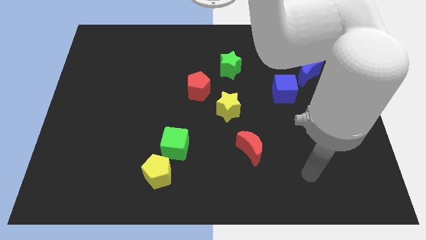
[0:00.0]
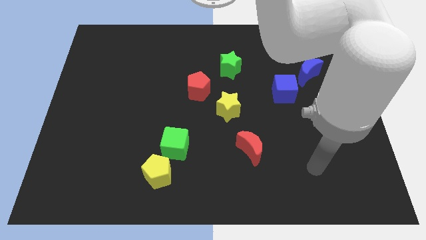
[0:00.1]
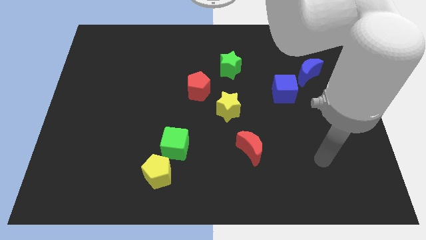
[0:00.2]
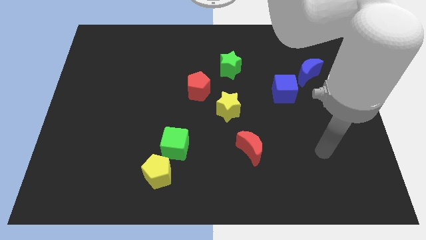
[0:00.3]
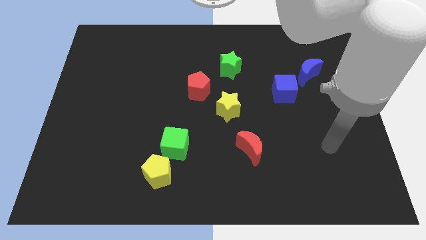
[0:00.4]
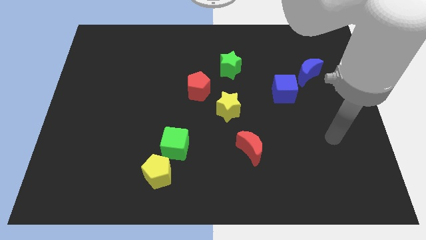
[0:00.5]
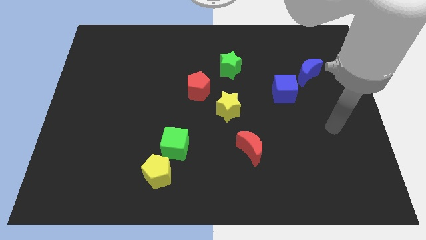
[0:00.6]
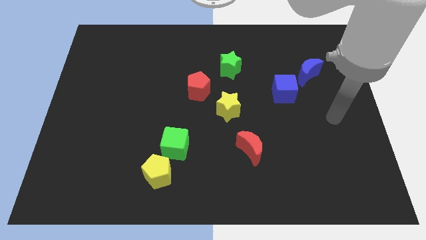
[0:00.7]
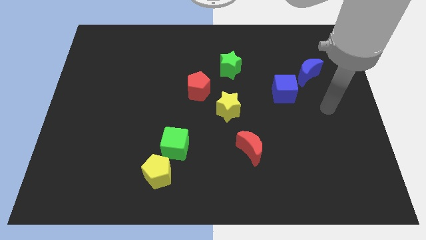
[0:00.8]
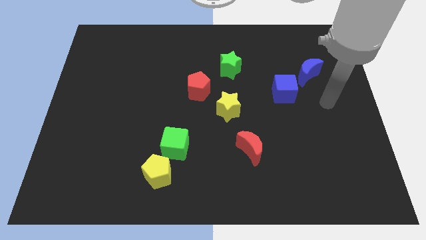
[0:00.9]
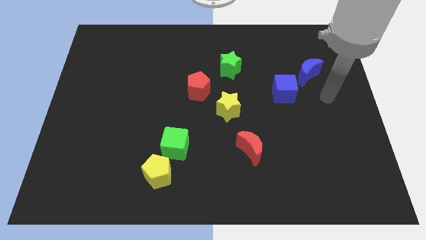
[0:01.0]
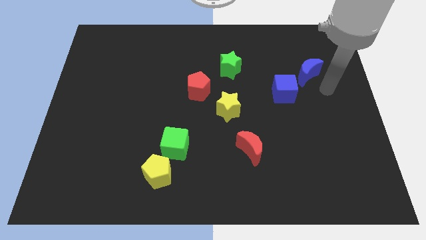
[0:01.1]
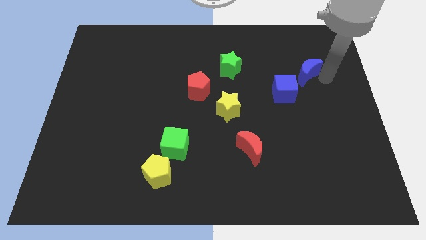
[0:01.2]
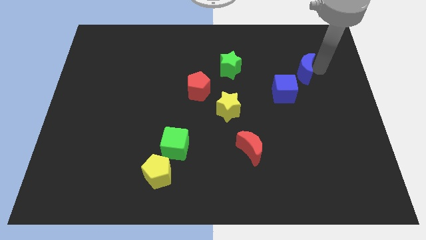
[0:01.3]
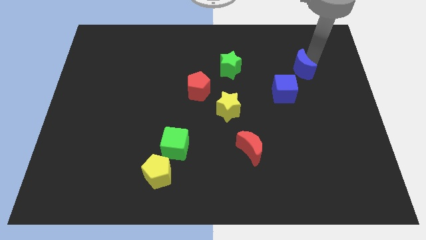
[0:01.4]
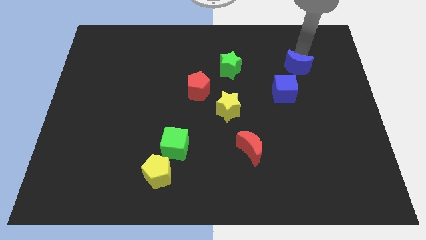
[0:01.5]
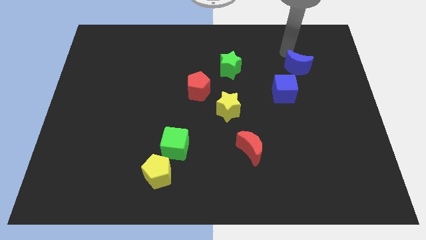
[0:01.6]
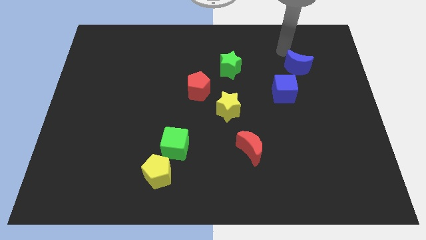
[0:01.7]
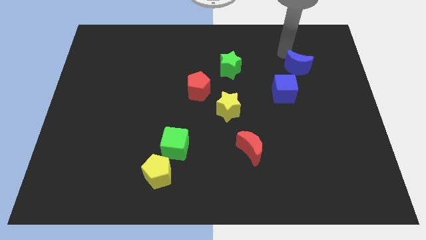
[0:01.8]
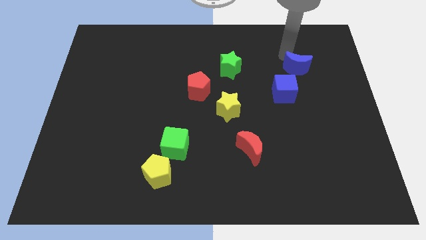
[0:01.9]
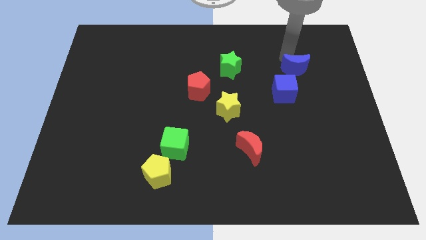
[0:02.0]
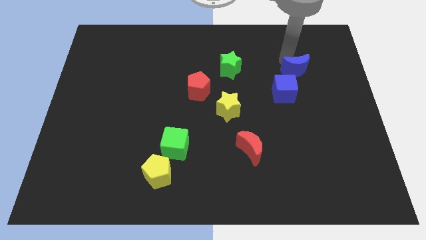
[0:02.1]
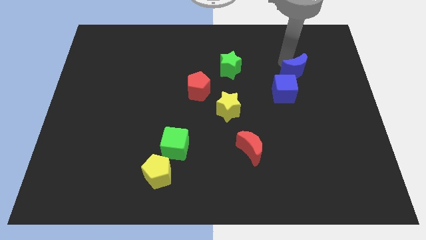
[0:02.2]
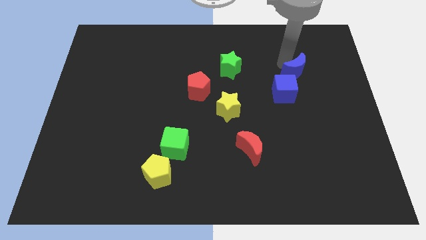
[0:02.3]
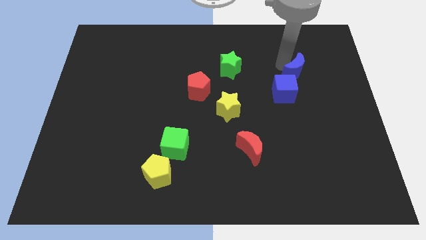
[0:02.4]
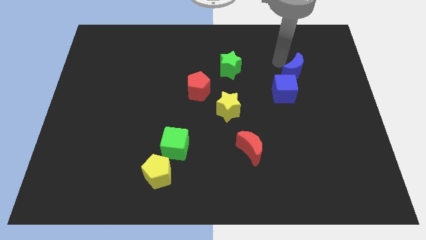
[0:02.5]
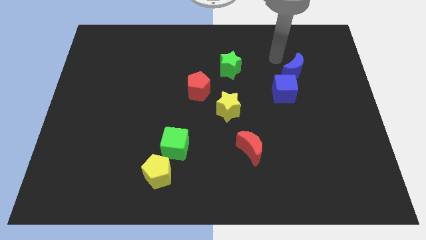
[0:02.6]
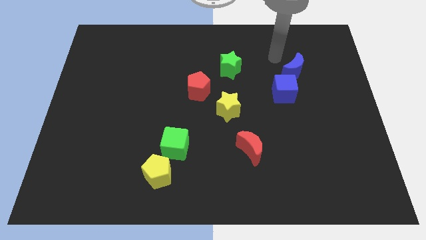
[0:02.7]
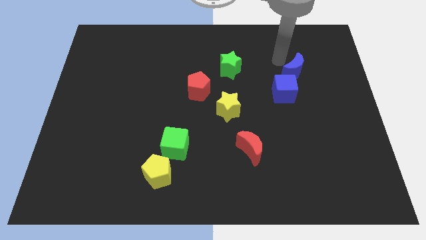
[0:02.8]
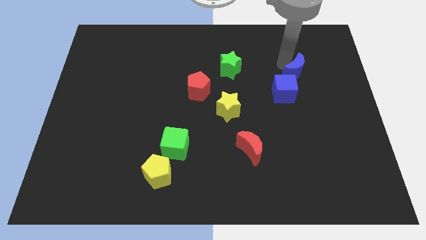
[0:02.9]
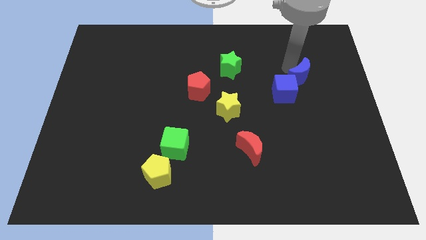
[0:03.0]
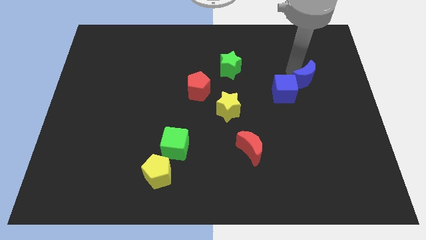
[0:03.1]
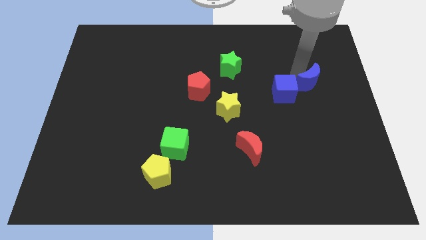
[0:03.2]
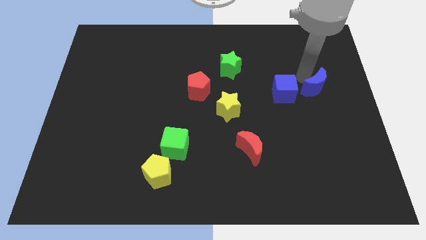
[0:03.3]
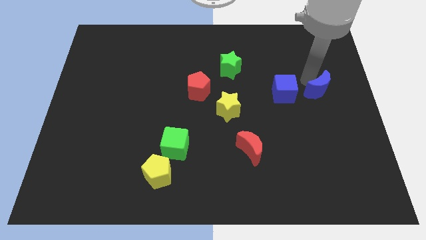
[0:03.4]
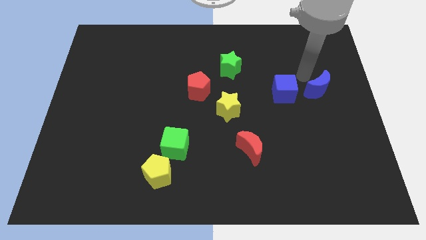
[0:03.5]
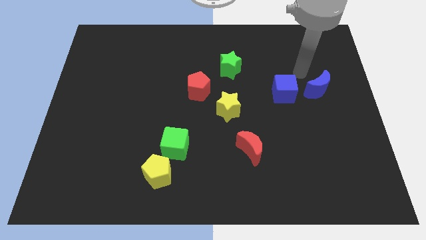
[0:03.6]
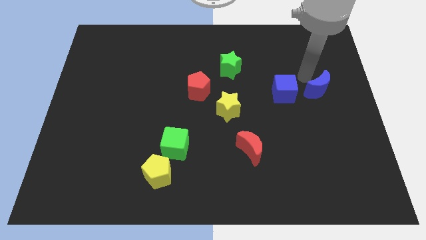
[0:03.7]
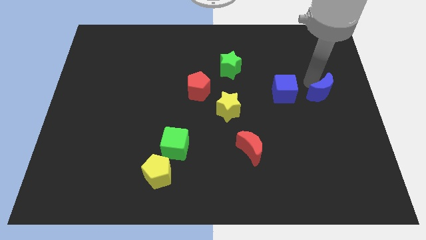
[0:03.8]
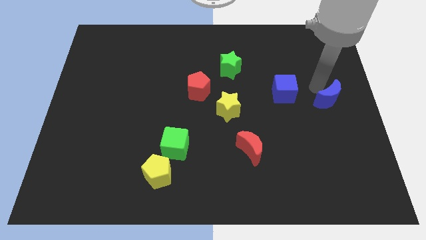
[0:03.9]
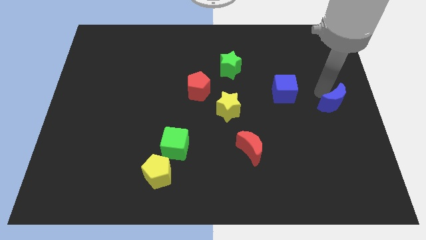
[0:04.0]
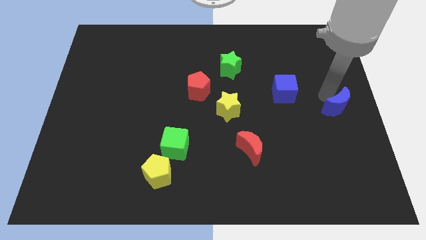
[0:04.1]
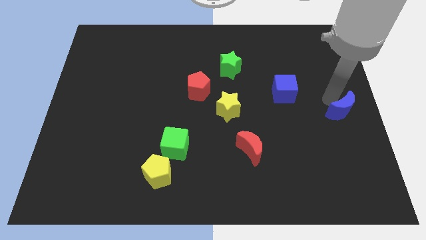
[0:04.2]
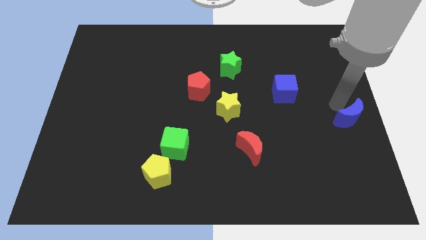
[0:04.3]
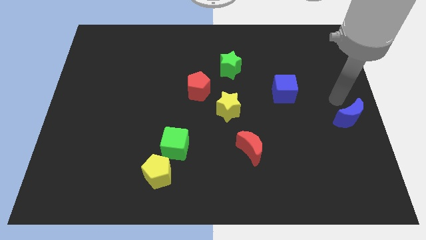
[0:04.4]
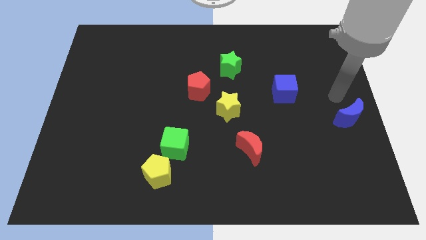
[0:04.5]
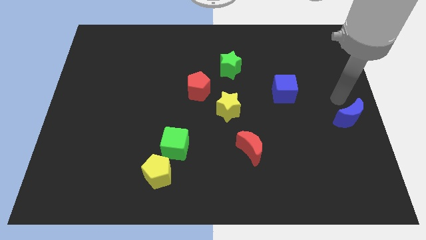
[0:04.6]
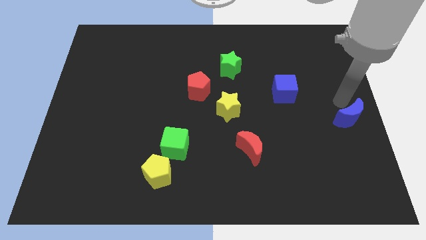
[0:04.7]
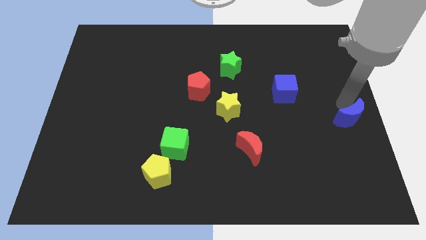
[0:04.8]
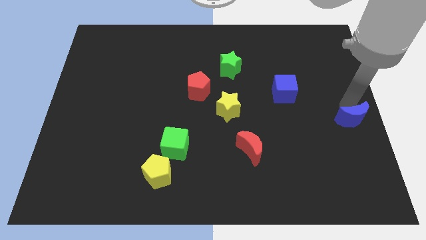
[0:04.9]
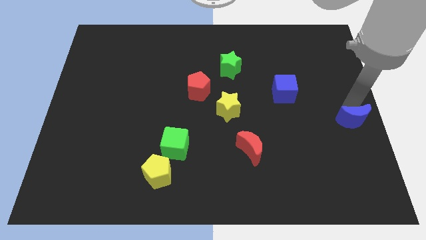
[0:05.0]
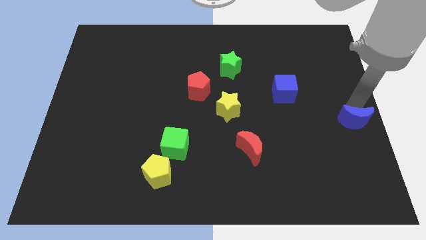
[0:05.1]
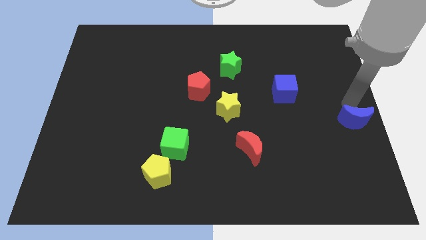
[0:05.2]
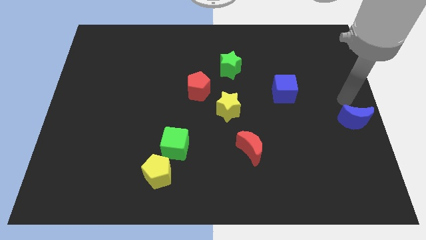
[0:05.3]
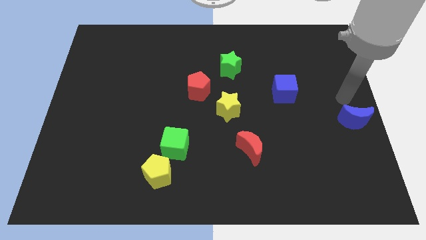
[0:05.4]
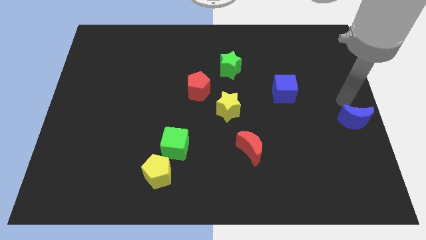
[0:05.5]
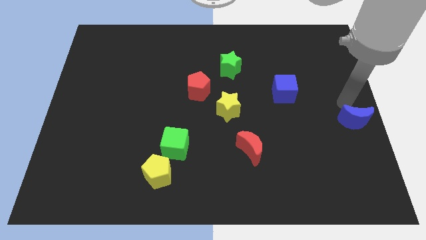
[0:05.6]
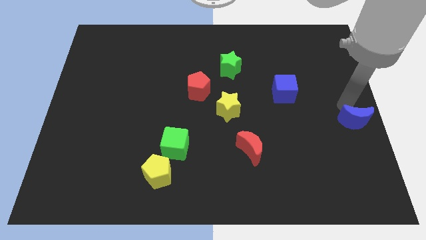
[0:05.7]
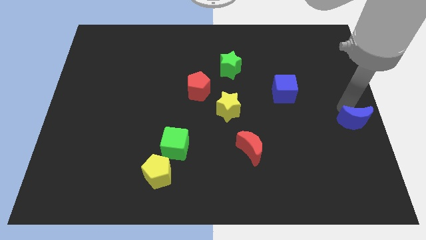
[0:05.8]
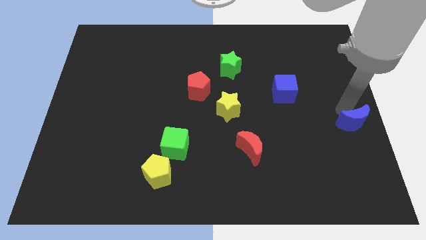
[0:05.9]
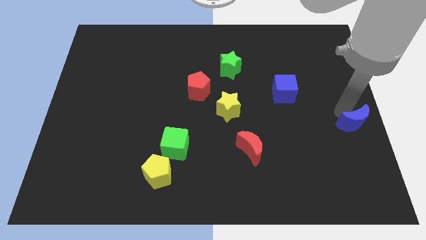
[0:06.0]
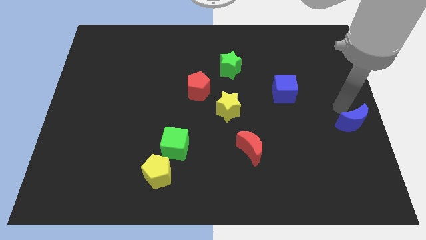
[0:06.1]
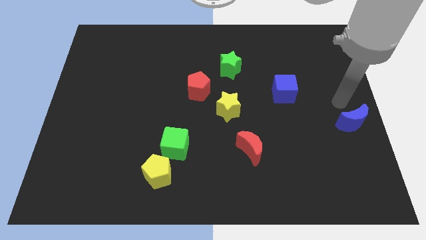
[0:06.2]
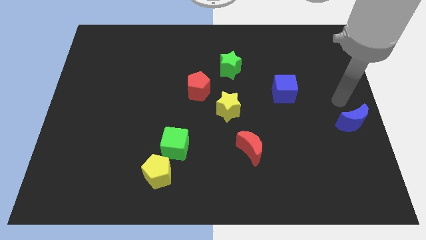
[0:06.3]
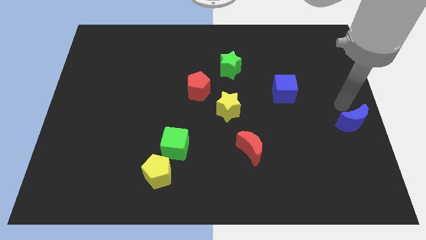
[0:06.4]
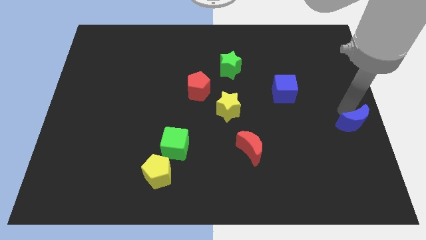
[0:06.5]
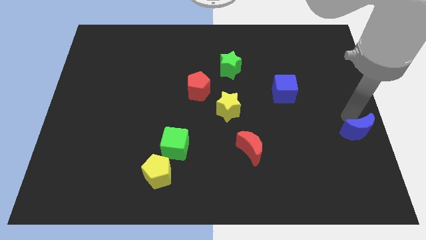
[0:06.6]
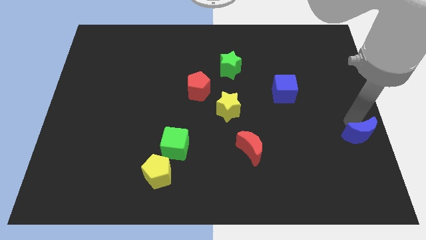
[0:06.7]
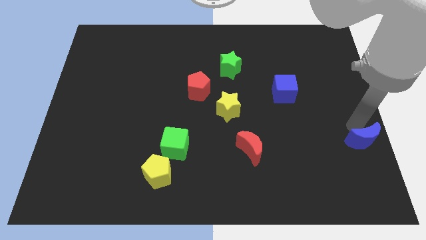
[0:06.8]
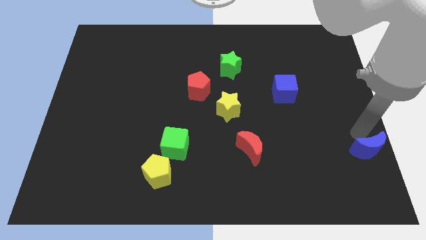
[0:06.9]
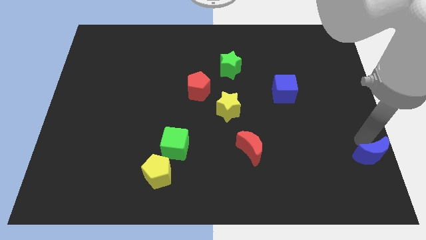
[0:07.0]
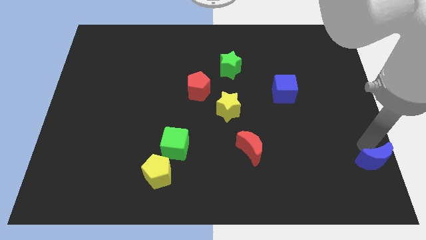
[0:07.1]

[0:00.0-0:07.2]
slide the blue moon to the lower right corner

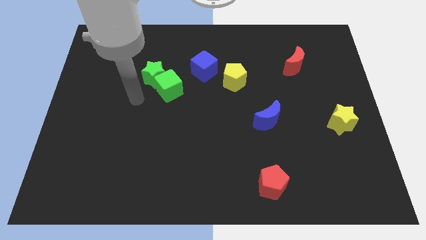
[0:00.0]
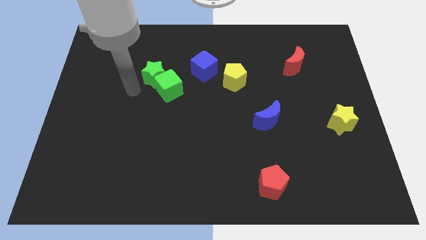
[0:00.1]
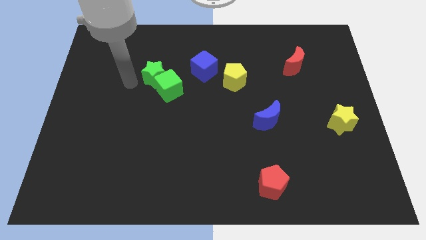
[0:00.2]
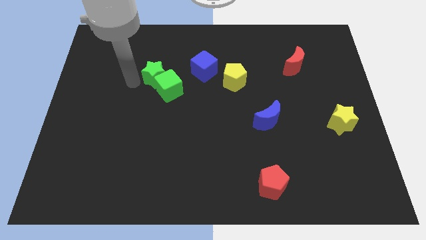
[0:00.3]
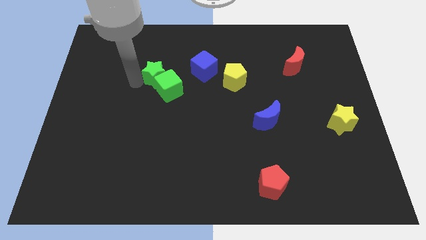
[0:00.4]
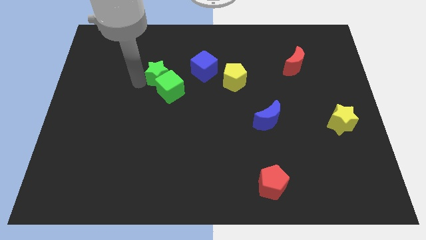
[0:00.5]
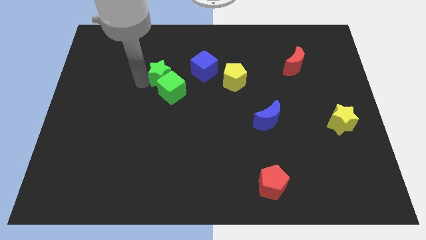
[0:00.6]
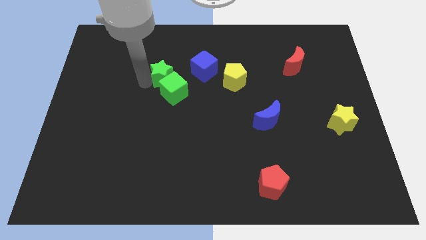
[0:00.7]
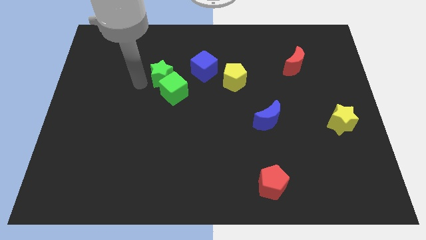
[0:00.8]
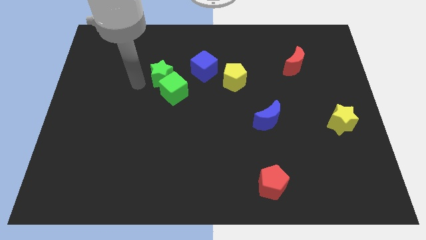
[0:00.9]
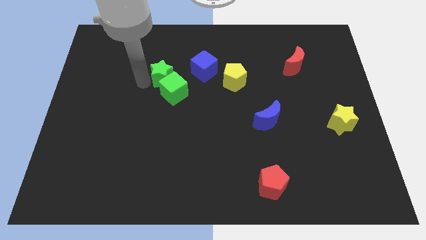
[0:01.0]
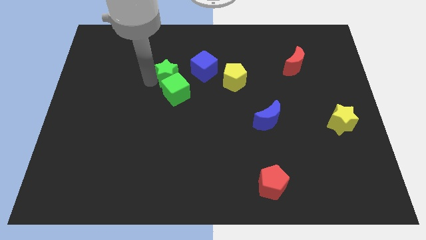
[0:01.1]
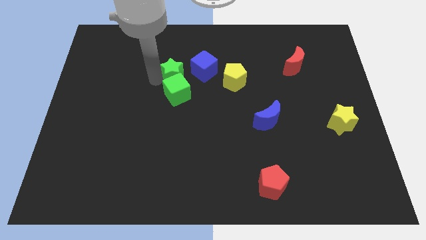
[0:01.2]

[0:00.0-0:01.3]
push the green star to the middle
